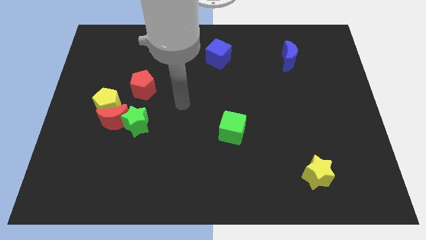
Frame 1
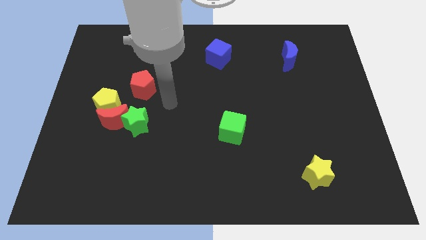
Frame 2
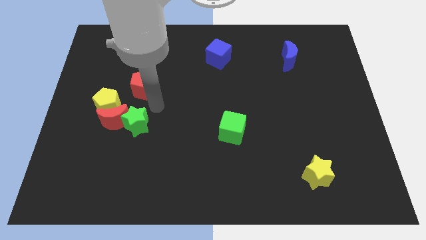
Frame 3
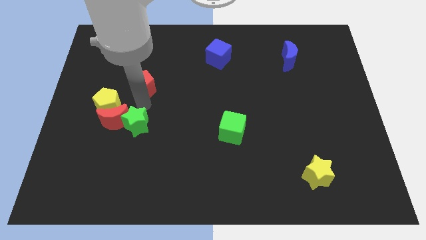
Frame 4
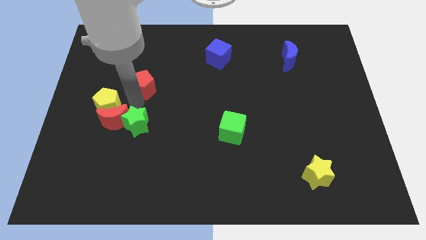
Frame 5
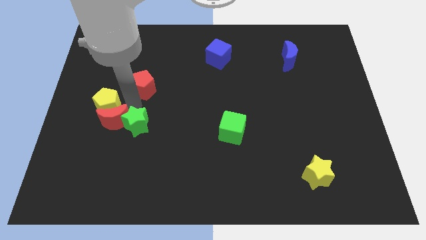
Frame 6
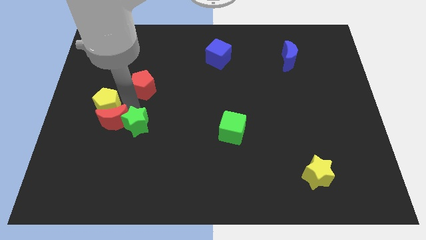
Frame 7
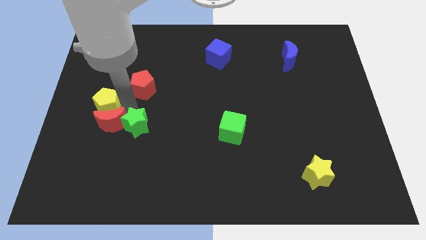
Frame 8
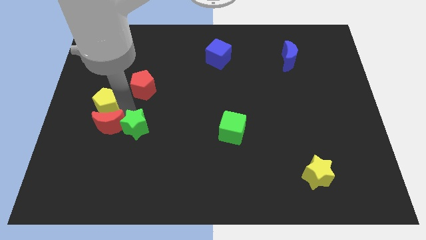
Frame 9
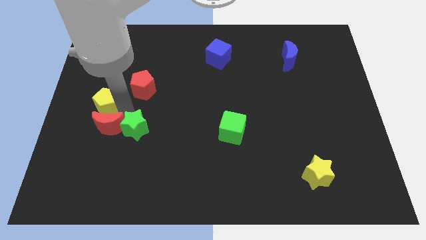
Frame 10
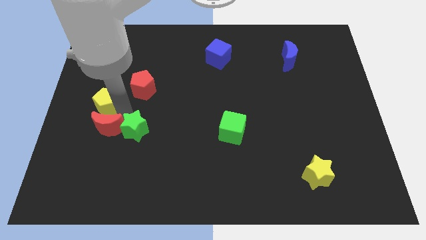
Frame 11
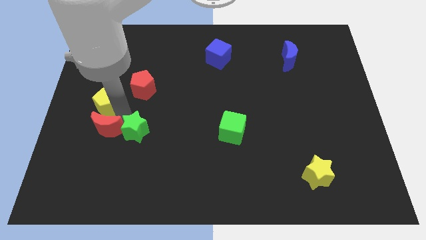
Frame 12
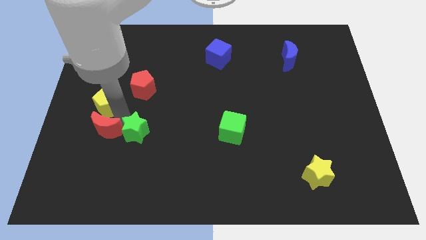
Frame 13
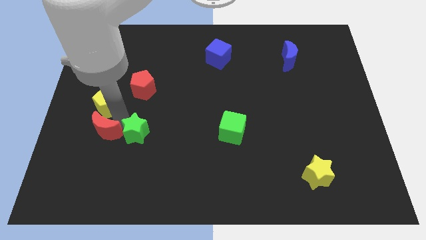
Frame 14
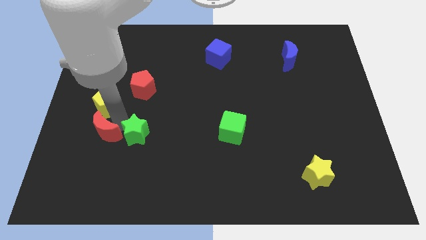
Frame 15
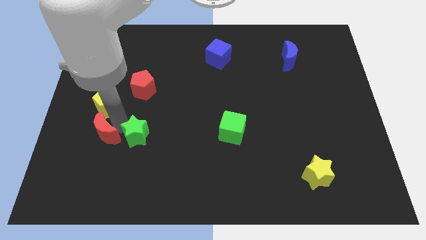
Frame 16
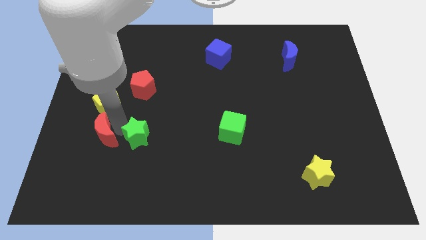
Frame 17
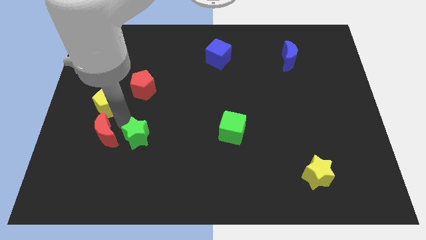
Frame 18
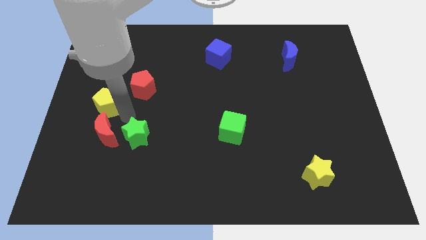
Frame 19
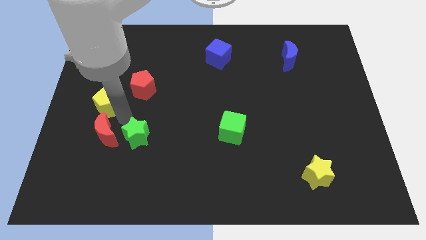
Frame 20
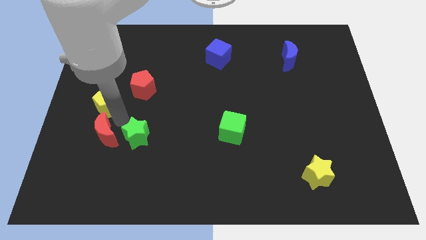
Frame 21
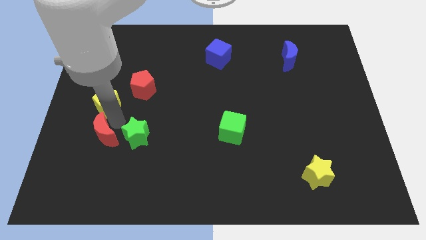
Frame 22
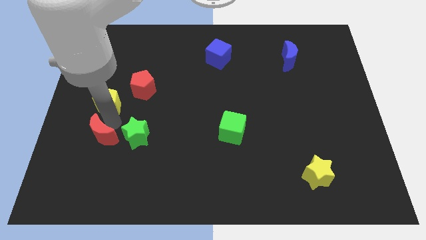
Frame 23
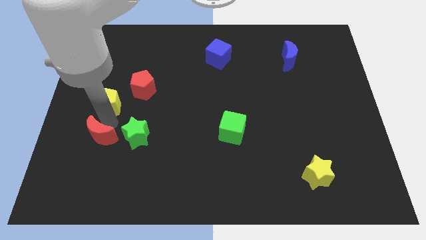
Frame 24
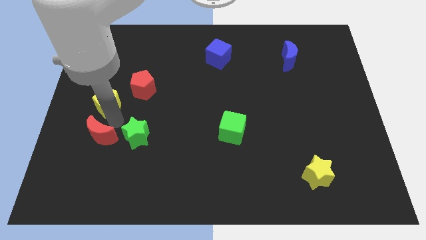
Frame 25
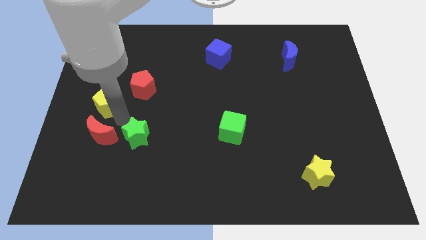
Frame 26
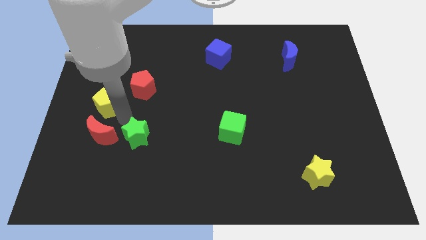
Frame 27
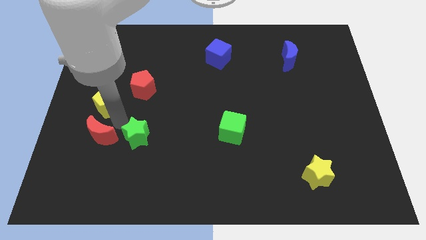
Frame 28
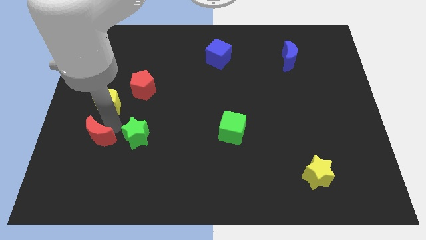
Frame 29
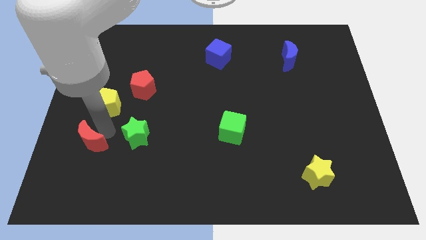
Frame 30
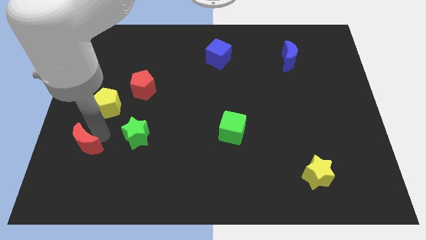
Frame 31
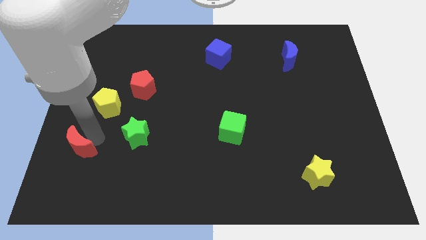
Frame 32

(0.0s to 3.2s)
pull the red moon apart from the yellow pentagon and green star

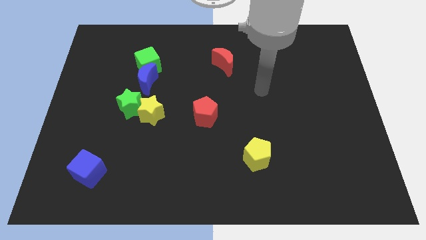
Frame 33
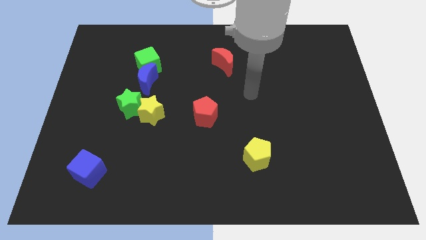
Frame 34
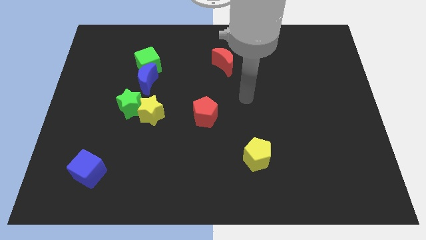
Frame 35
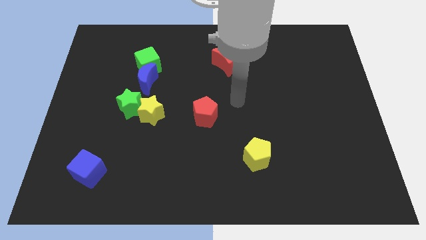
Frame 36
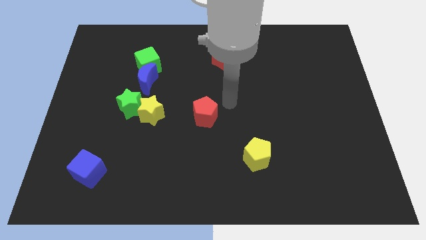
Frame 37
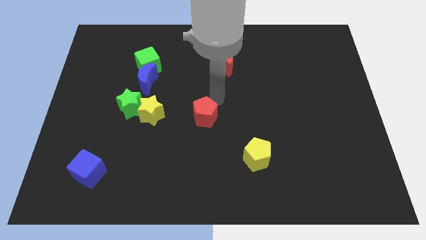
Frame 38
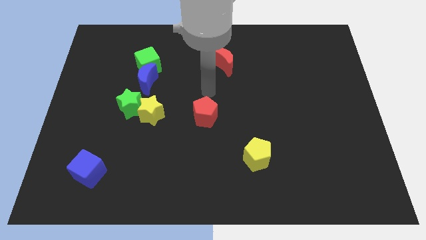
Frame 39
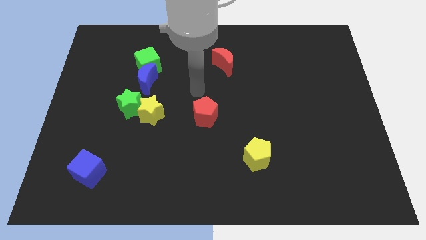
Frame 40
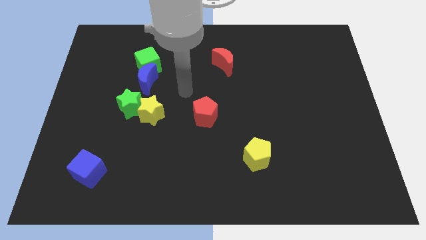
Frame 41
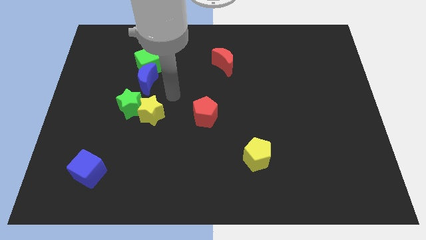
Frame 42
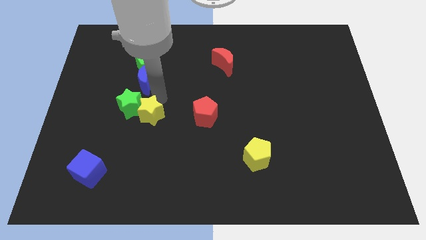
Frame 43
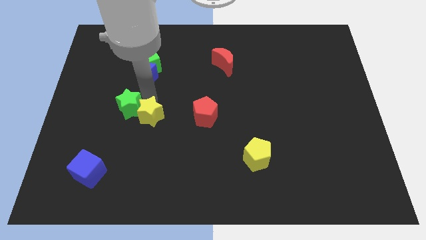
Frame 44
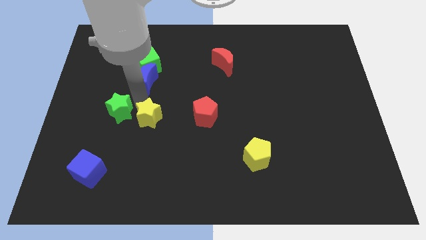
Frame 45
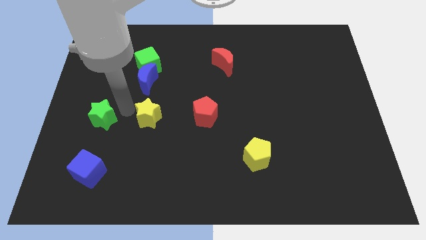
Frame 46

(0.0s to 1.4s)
separate the yellow star from the green star

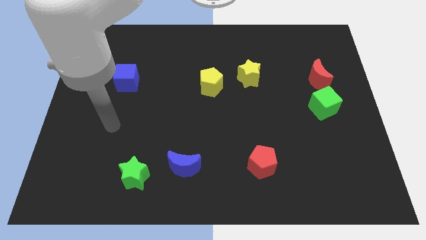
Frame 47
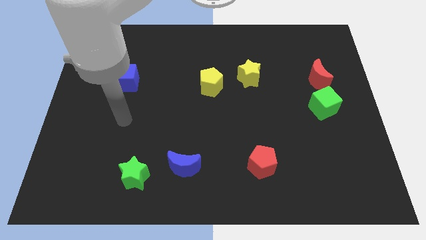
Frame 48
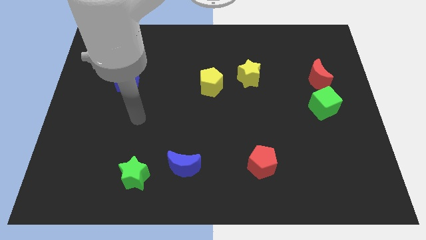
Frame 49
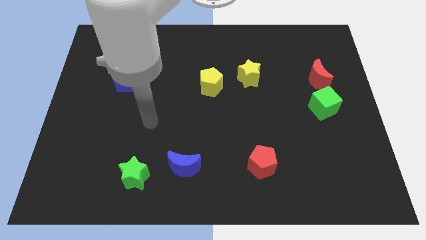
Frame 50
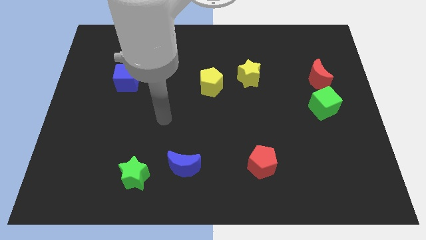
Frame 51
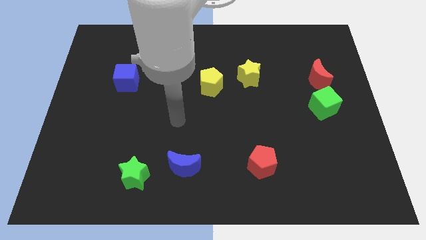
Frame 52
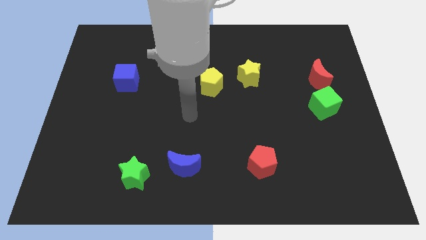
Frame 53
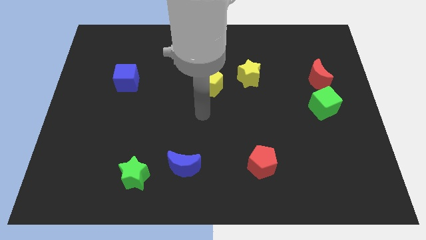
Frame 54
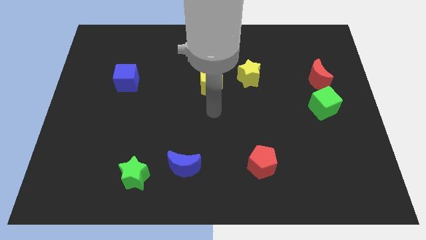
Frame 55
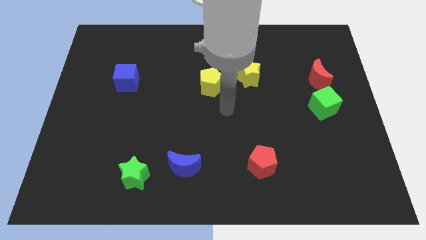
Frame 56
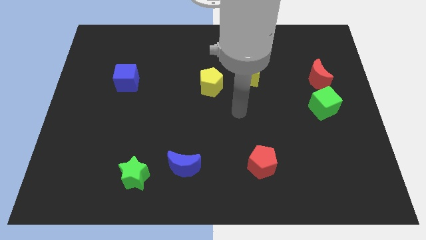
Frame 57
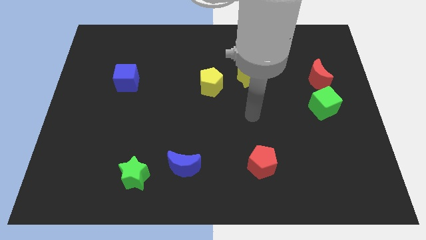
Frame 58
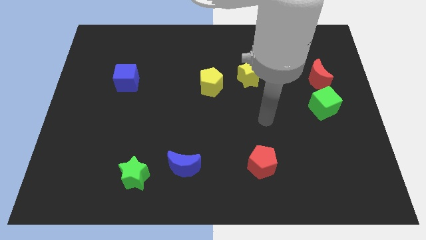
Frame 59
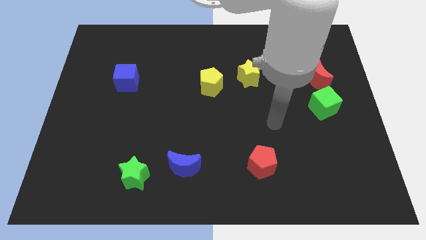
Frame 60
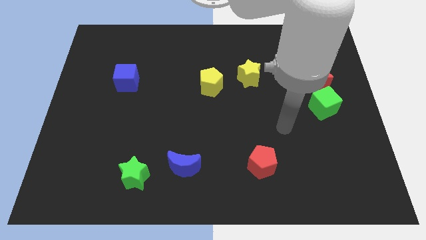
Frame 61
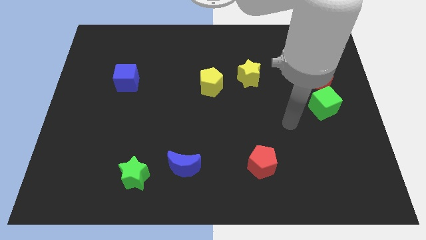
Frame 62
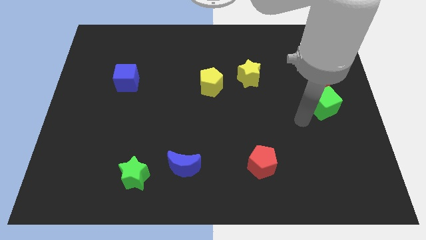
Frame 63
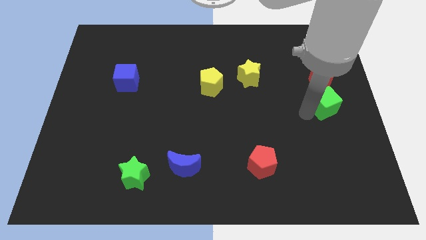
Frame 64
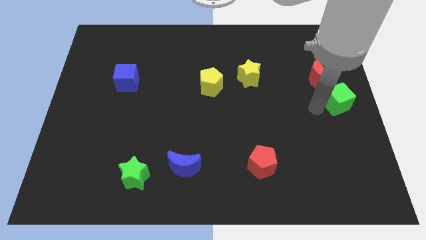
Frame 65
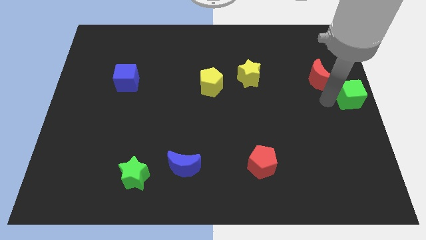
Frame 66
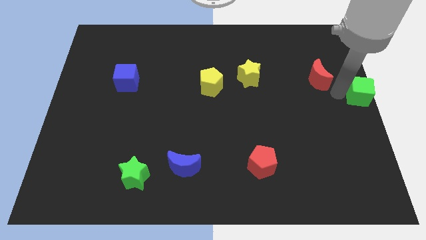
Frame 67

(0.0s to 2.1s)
separate the red moon from the green cube

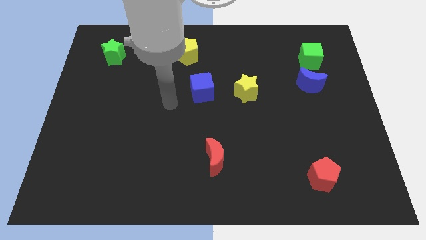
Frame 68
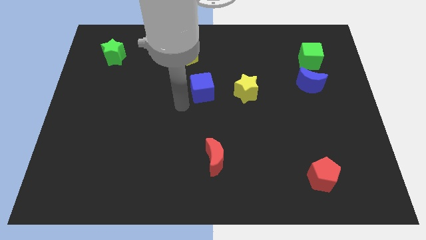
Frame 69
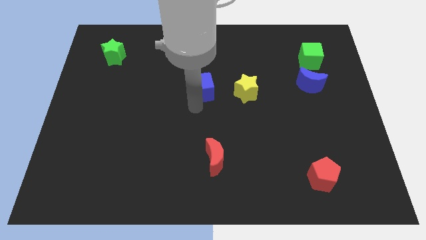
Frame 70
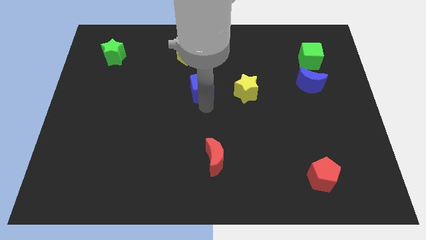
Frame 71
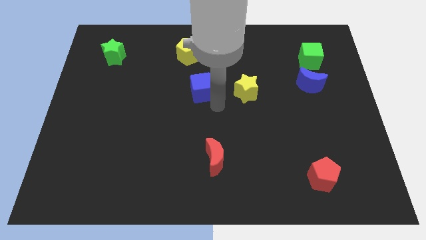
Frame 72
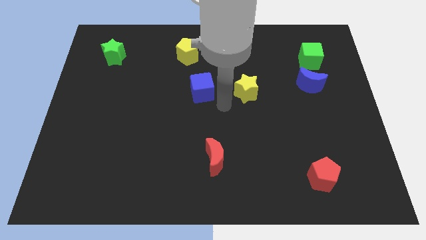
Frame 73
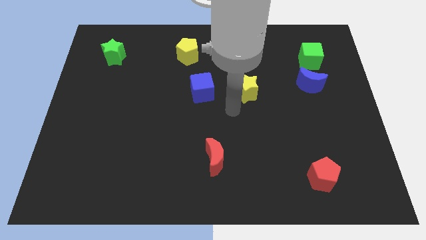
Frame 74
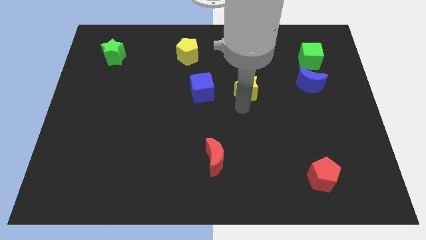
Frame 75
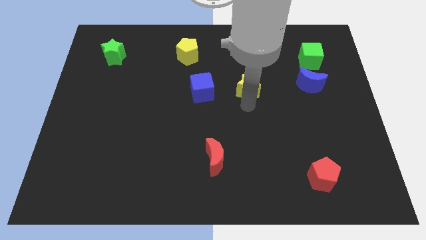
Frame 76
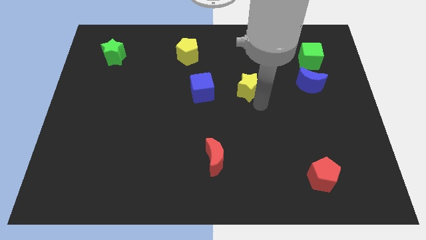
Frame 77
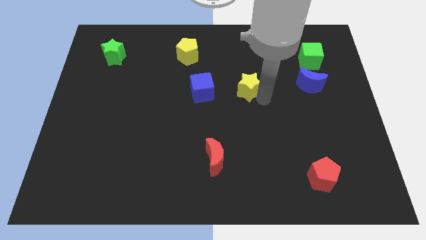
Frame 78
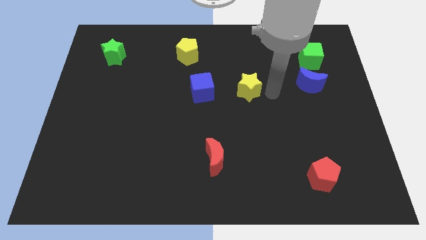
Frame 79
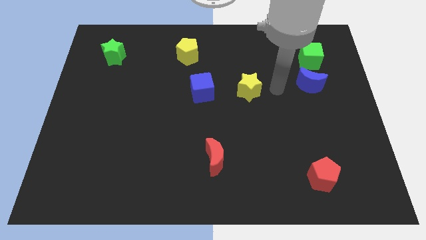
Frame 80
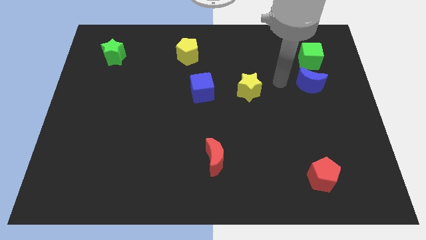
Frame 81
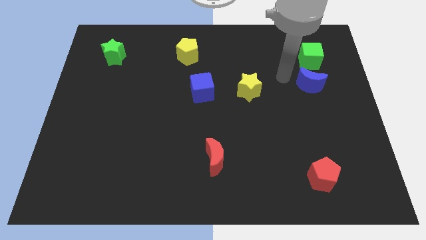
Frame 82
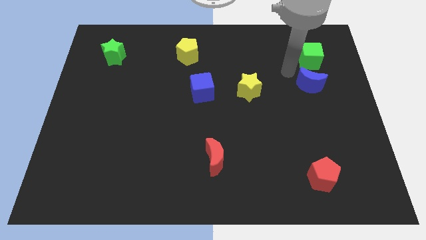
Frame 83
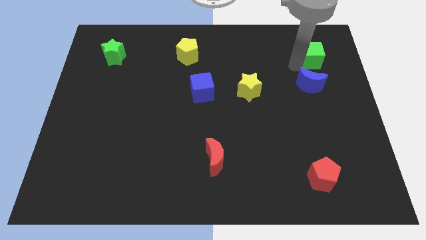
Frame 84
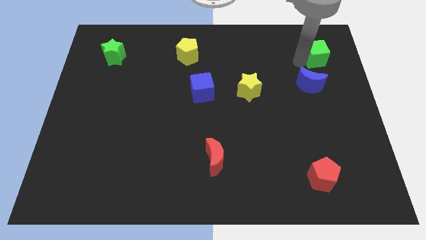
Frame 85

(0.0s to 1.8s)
move the blue moon away from the green cube

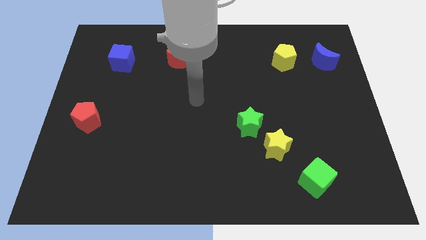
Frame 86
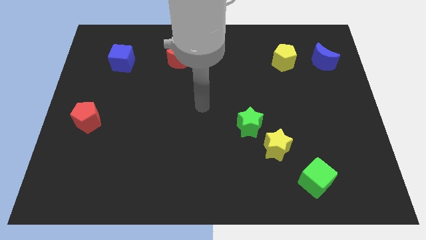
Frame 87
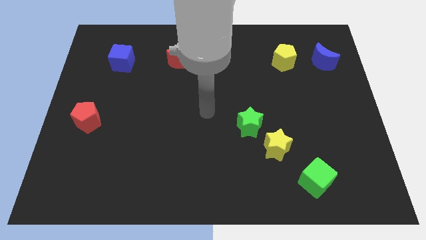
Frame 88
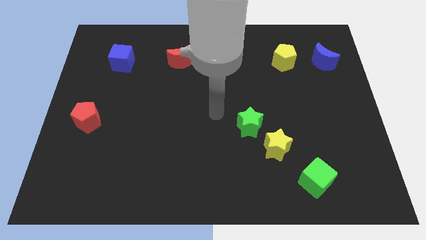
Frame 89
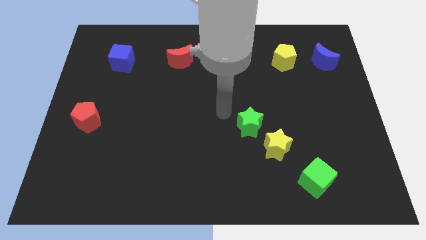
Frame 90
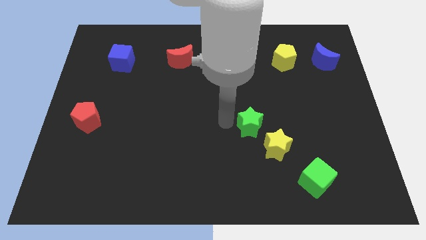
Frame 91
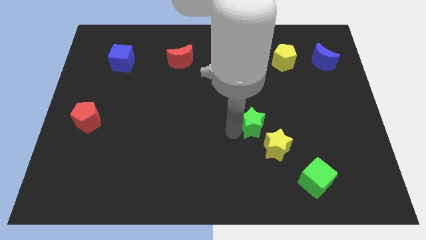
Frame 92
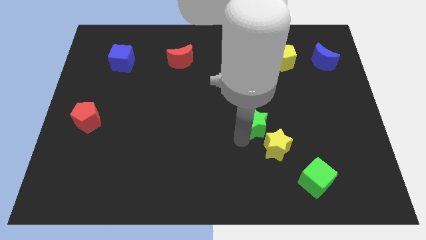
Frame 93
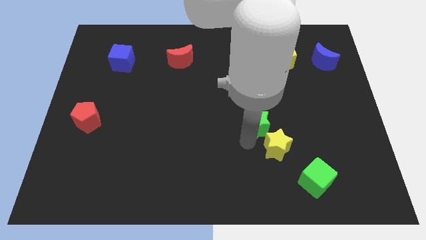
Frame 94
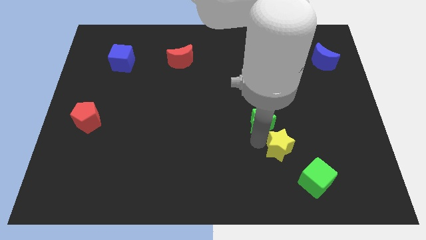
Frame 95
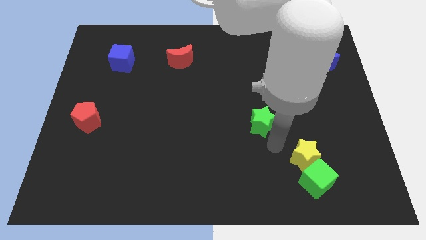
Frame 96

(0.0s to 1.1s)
separate the green star from the yellow star
